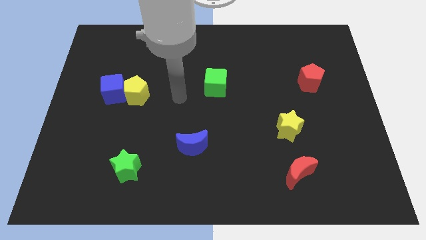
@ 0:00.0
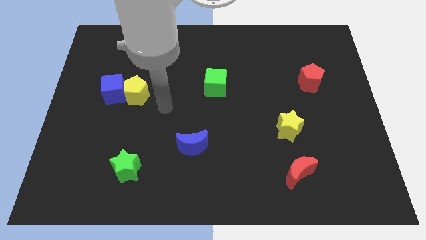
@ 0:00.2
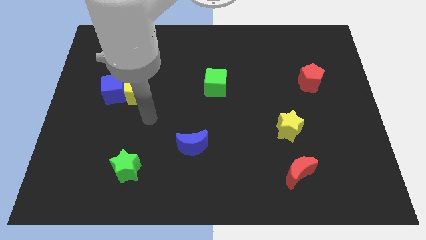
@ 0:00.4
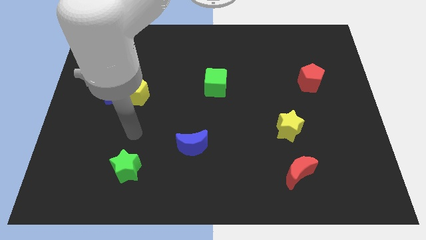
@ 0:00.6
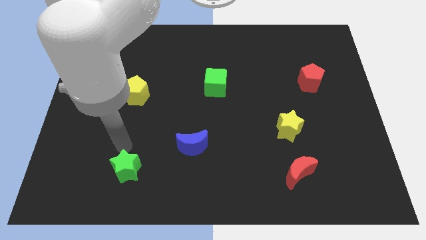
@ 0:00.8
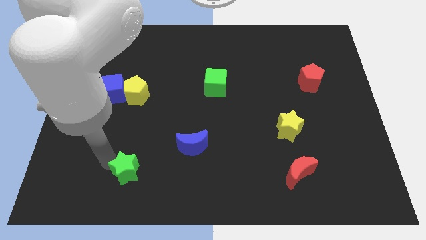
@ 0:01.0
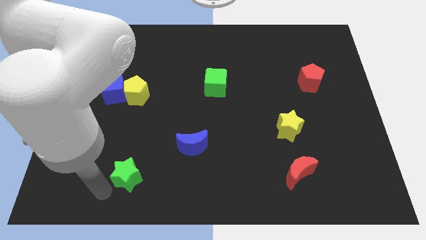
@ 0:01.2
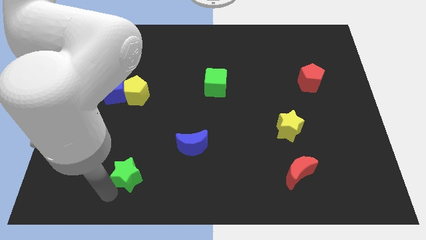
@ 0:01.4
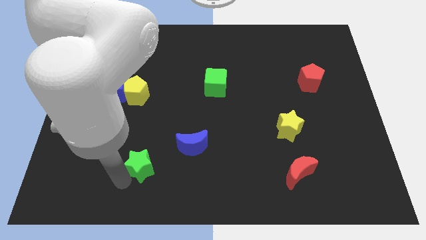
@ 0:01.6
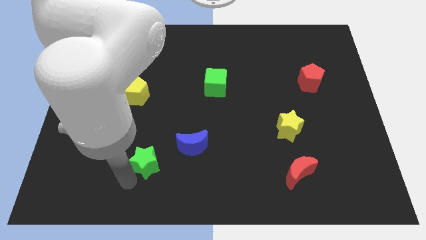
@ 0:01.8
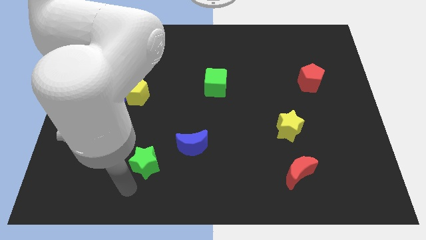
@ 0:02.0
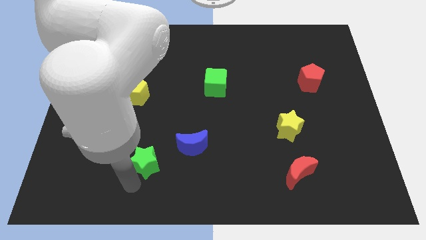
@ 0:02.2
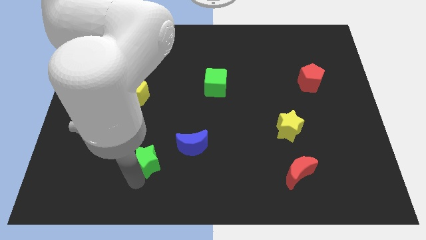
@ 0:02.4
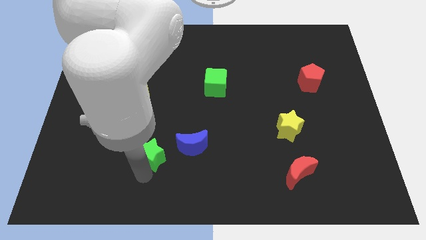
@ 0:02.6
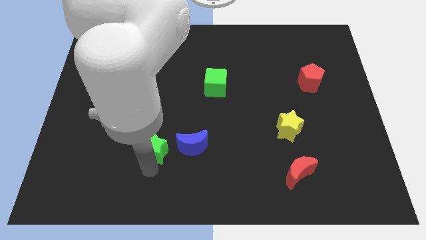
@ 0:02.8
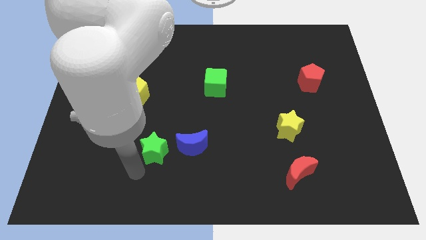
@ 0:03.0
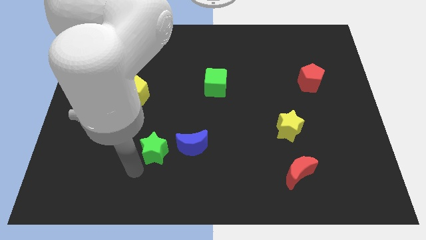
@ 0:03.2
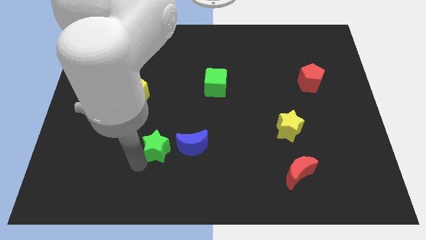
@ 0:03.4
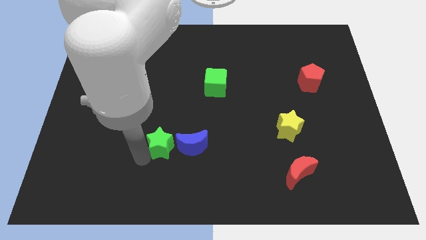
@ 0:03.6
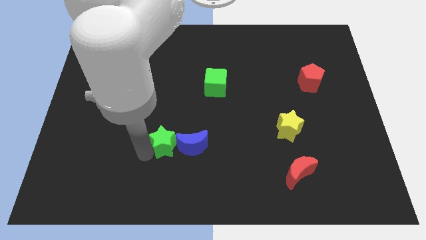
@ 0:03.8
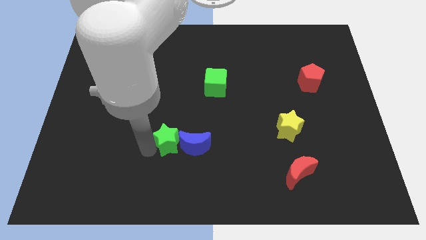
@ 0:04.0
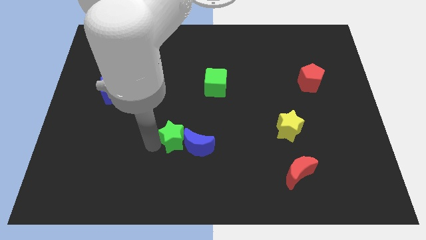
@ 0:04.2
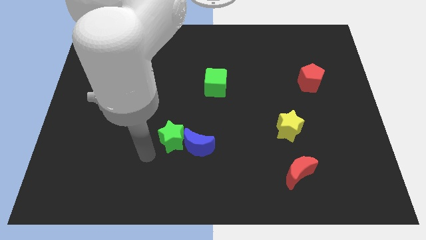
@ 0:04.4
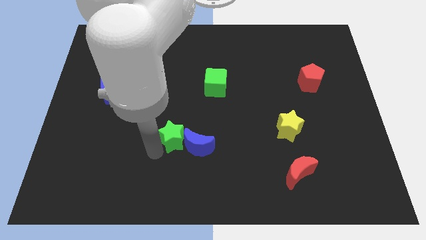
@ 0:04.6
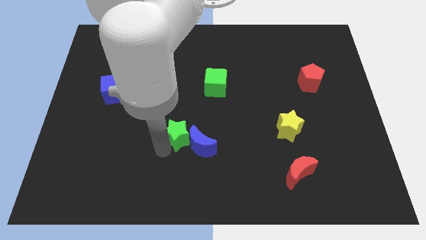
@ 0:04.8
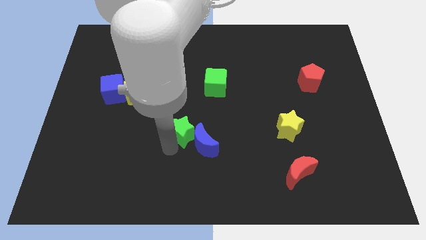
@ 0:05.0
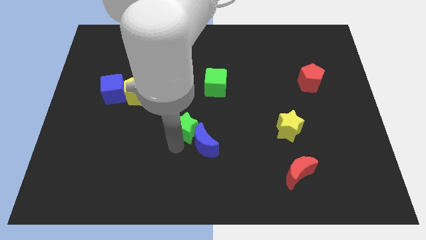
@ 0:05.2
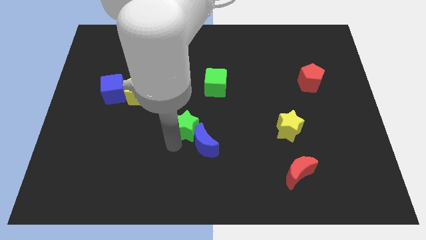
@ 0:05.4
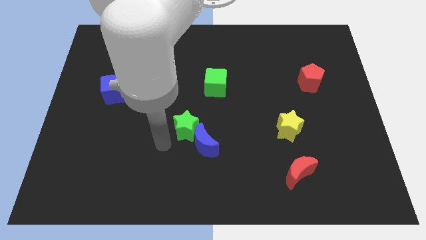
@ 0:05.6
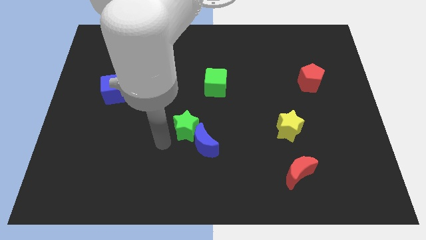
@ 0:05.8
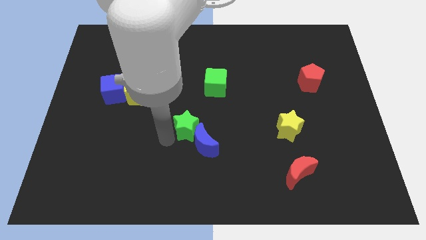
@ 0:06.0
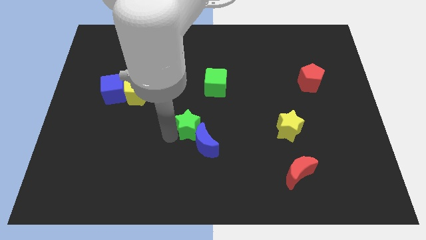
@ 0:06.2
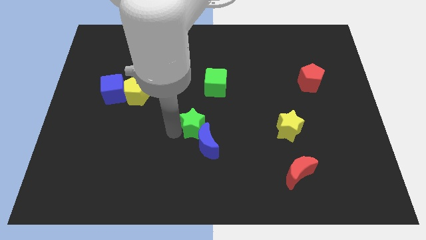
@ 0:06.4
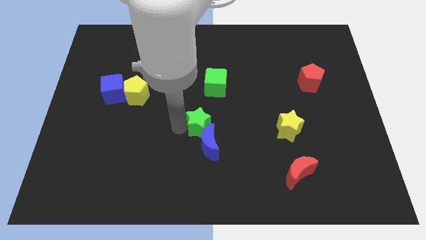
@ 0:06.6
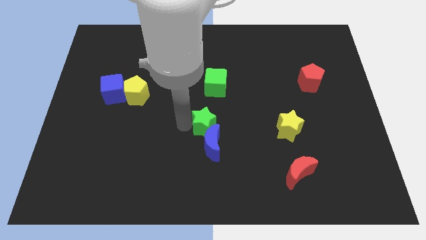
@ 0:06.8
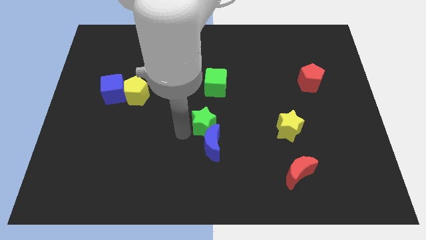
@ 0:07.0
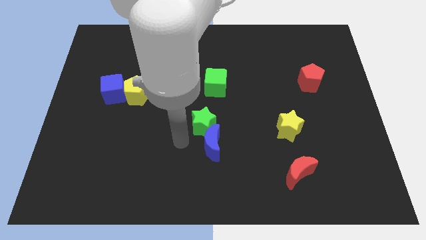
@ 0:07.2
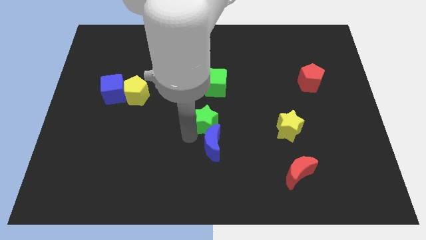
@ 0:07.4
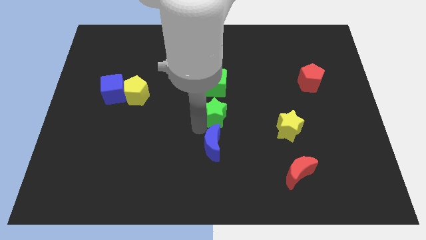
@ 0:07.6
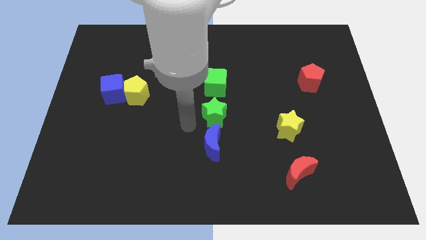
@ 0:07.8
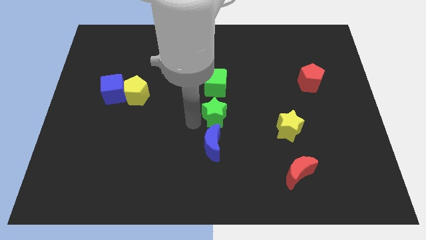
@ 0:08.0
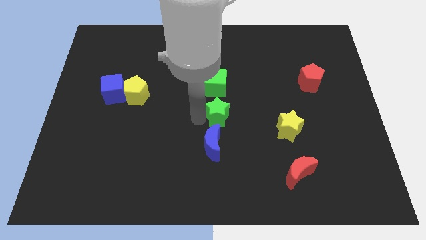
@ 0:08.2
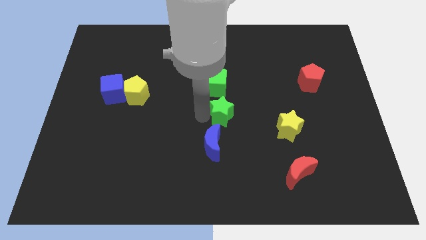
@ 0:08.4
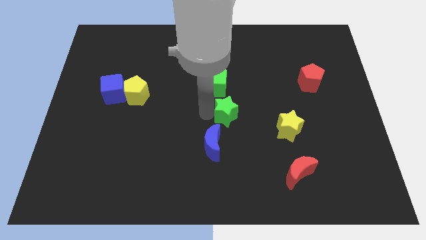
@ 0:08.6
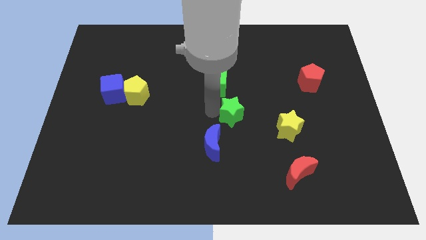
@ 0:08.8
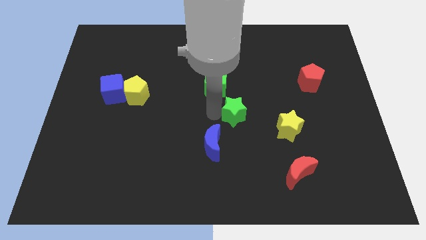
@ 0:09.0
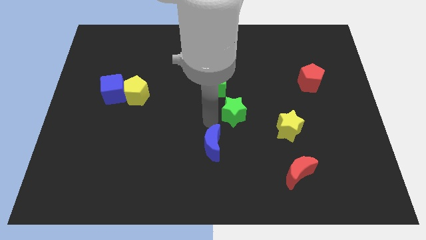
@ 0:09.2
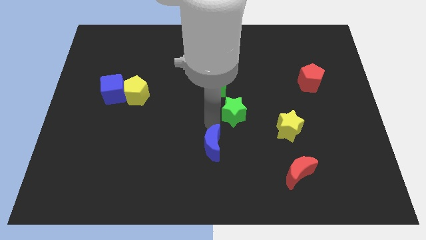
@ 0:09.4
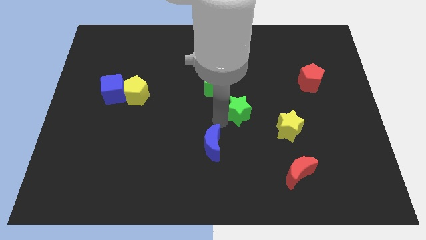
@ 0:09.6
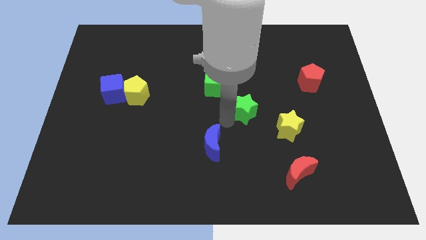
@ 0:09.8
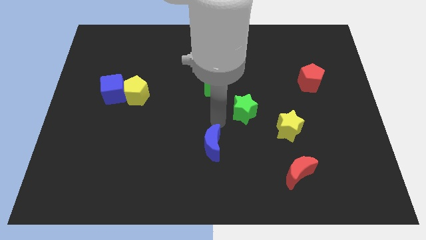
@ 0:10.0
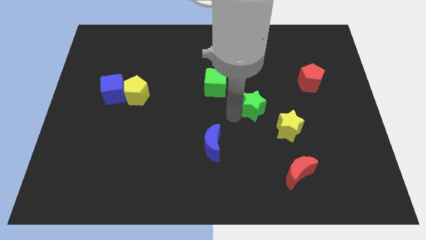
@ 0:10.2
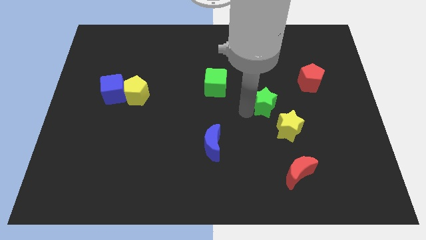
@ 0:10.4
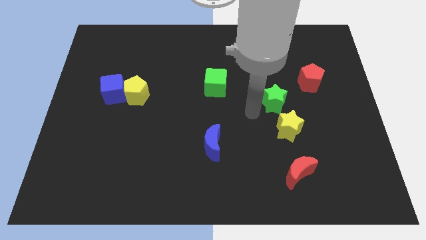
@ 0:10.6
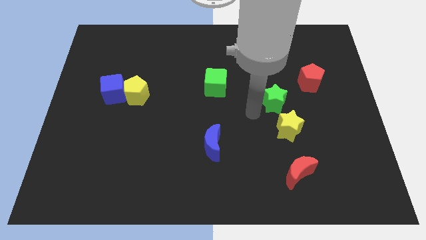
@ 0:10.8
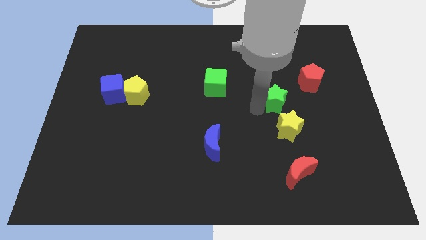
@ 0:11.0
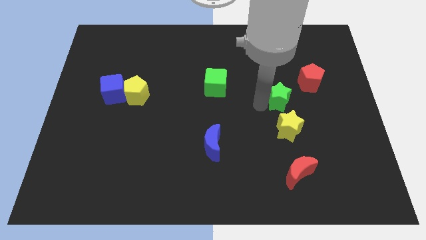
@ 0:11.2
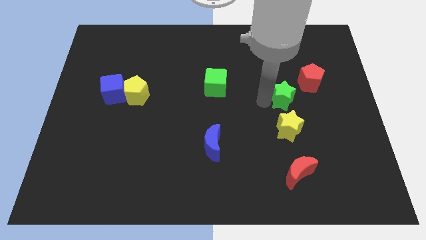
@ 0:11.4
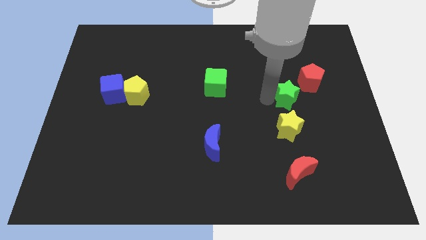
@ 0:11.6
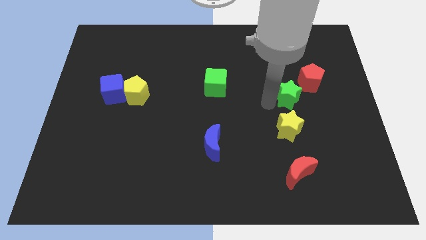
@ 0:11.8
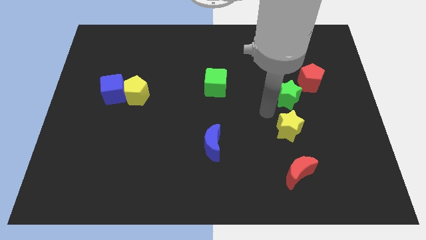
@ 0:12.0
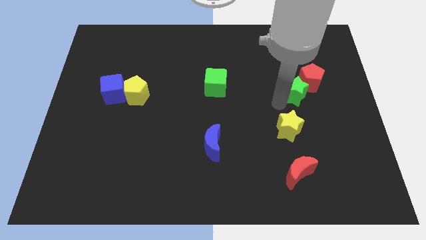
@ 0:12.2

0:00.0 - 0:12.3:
push the green star to the red pentagon

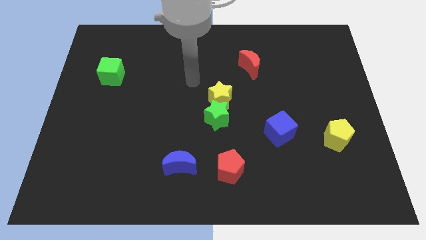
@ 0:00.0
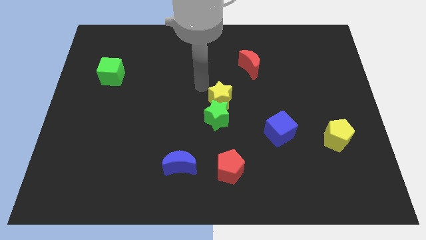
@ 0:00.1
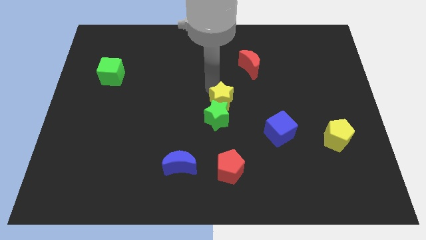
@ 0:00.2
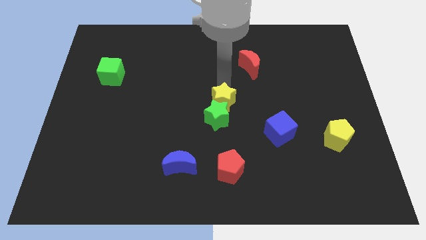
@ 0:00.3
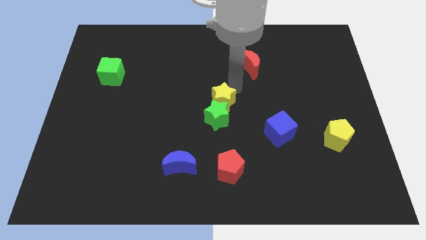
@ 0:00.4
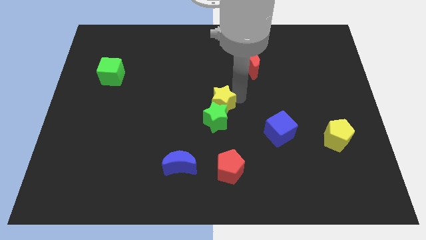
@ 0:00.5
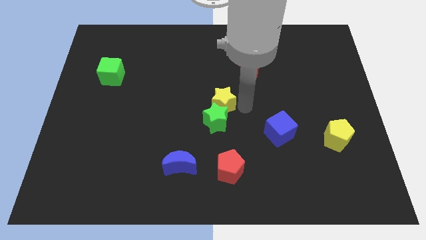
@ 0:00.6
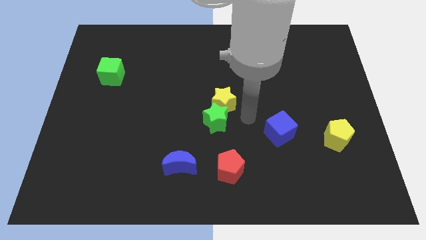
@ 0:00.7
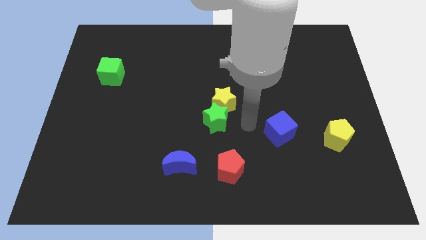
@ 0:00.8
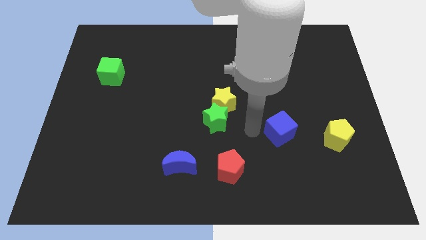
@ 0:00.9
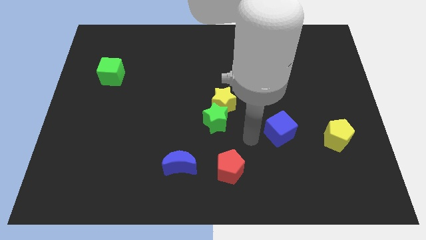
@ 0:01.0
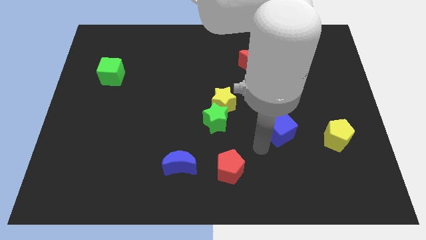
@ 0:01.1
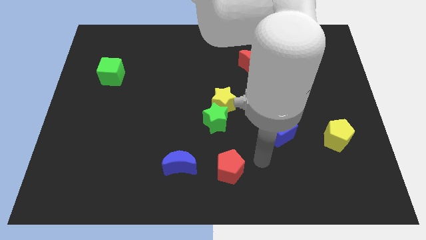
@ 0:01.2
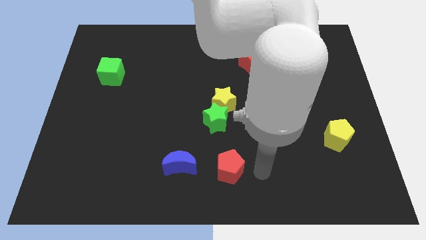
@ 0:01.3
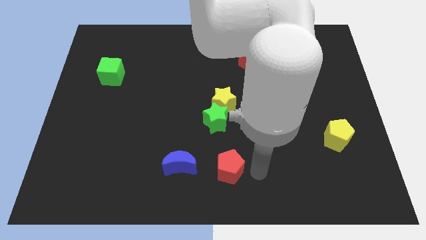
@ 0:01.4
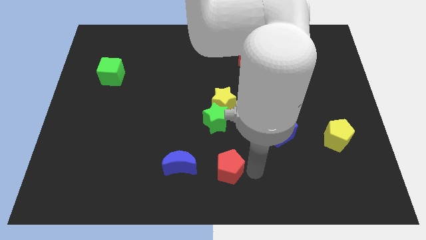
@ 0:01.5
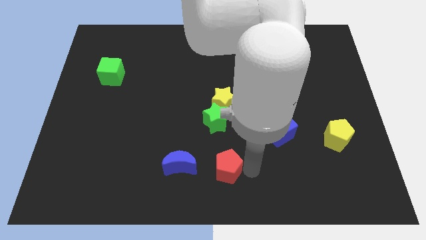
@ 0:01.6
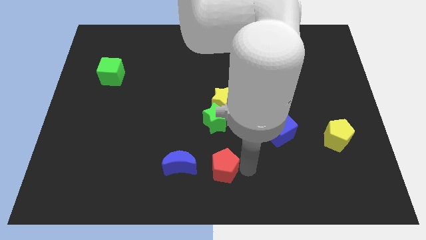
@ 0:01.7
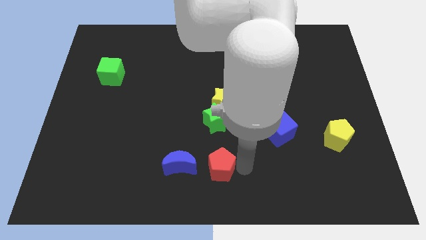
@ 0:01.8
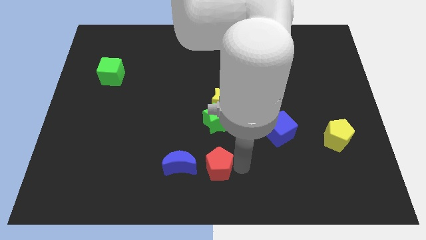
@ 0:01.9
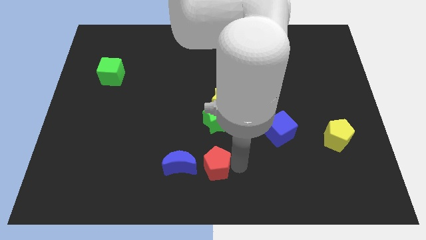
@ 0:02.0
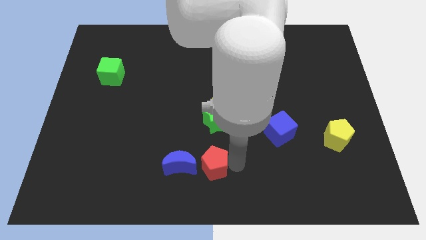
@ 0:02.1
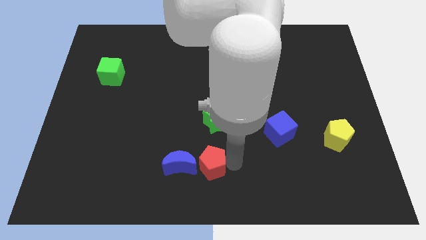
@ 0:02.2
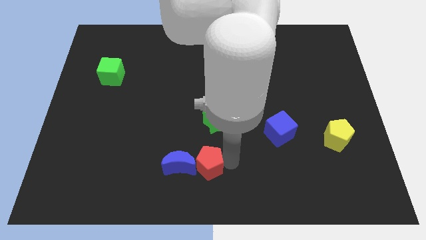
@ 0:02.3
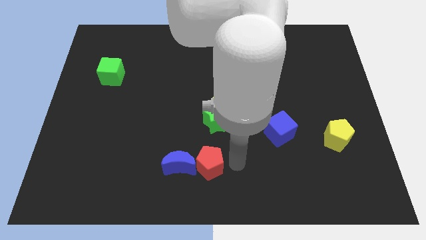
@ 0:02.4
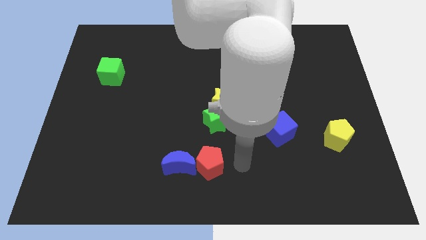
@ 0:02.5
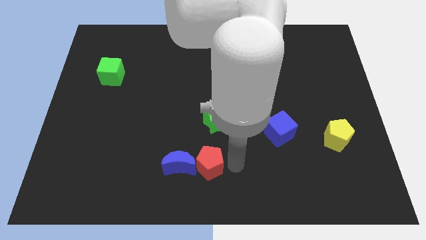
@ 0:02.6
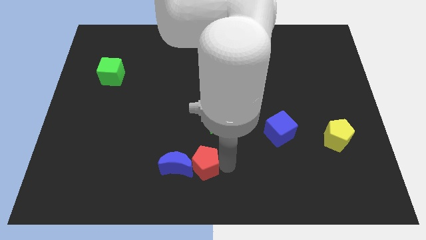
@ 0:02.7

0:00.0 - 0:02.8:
move the red pentagon next to the blue moon
